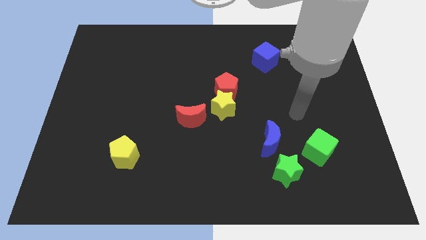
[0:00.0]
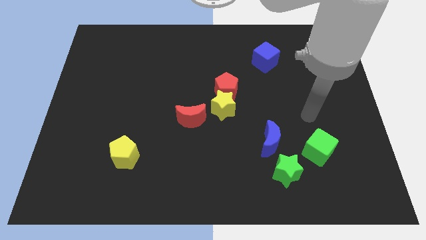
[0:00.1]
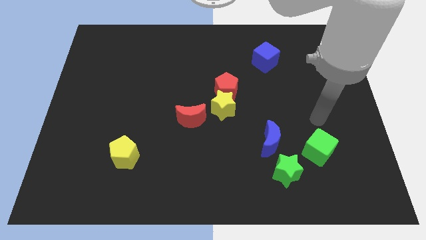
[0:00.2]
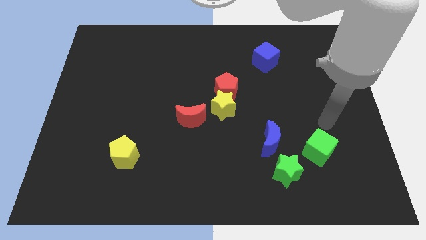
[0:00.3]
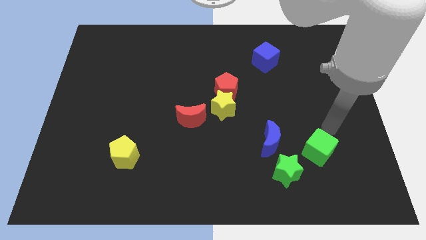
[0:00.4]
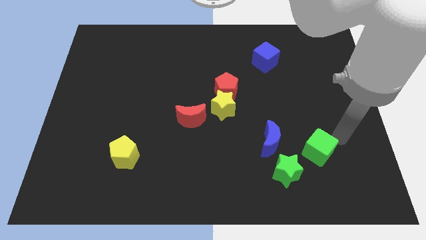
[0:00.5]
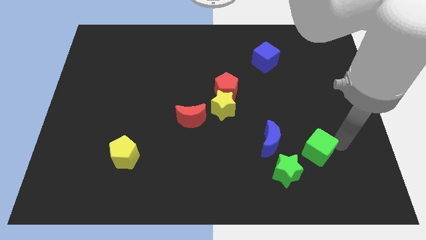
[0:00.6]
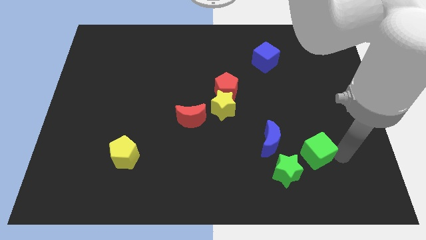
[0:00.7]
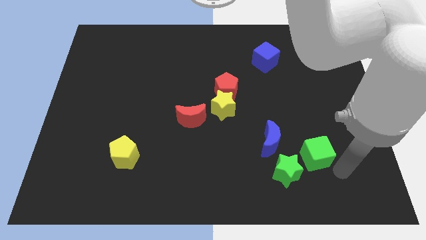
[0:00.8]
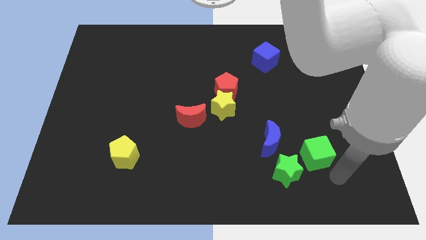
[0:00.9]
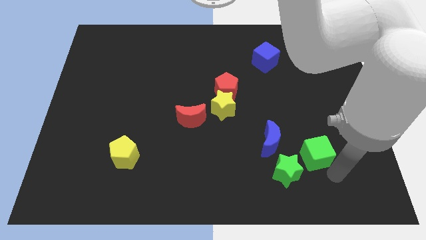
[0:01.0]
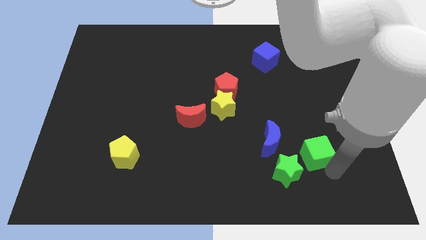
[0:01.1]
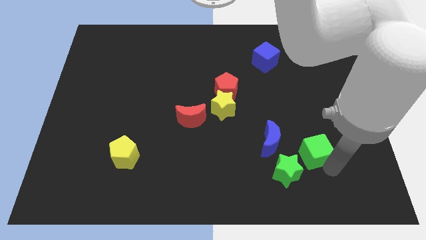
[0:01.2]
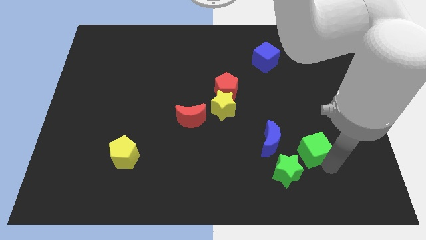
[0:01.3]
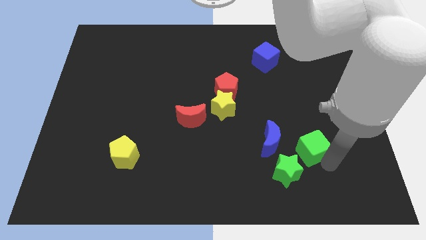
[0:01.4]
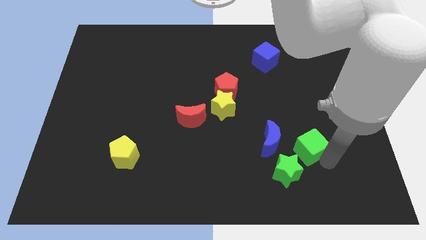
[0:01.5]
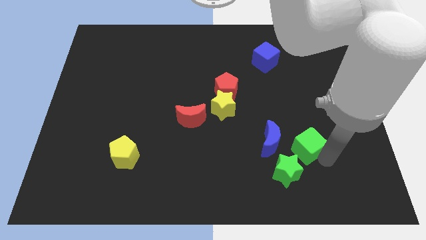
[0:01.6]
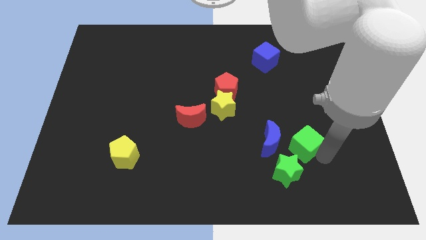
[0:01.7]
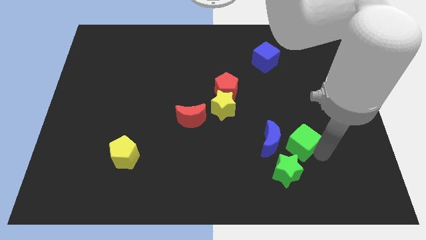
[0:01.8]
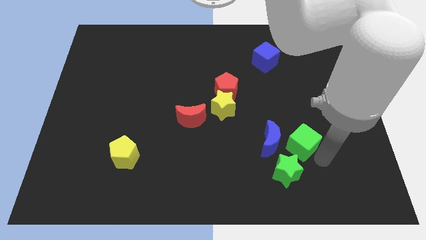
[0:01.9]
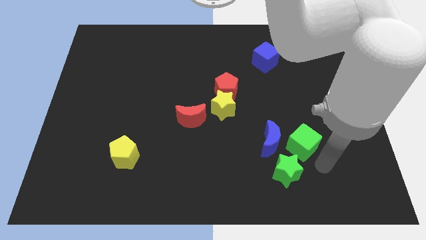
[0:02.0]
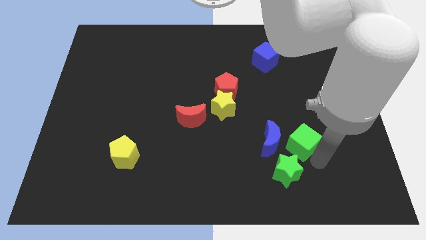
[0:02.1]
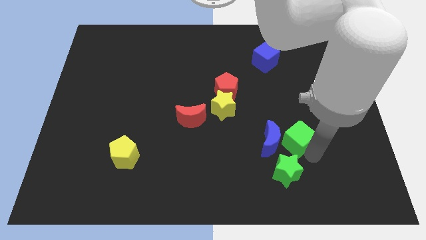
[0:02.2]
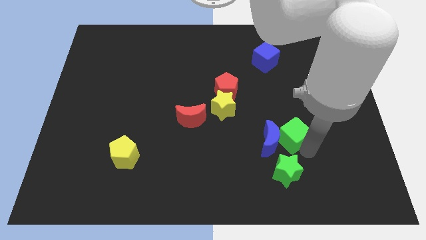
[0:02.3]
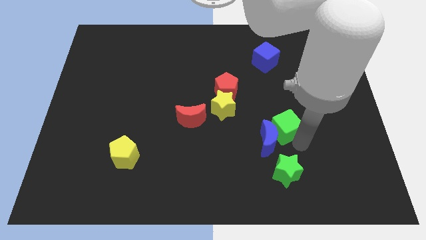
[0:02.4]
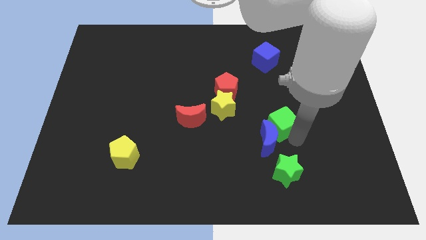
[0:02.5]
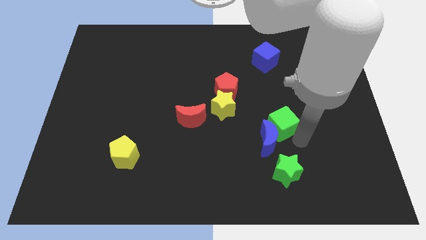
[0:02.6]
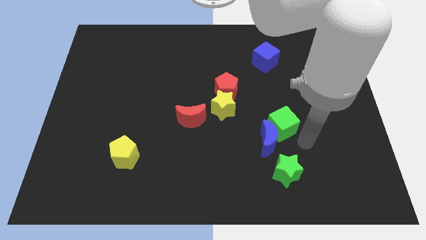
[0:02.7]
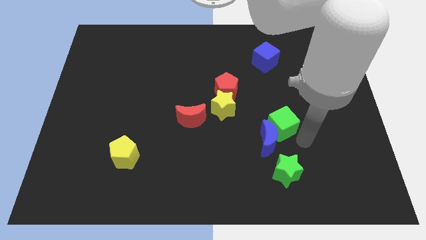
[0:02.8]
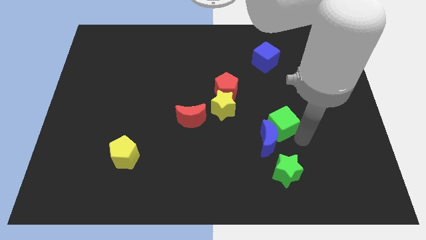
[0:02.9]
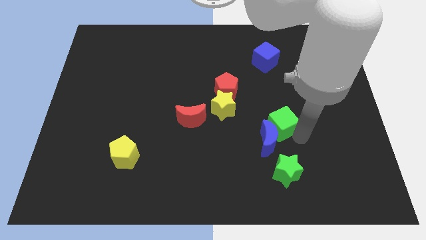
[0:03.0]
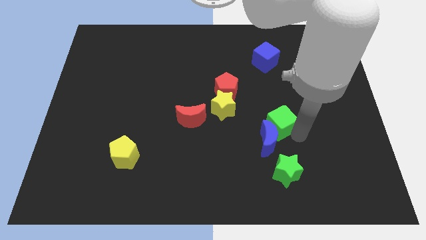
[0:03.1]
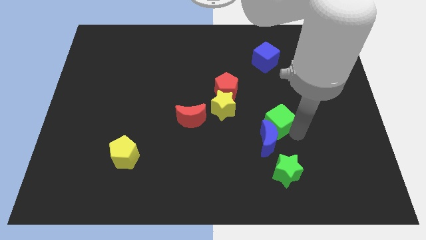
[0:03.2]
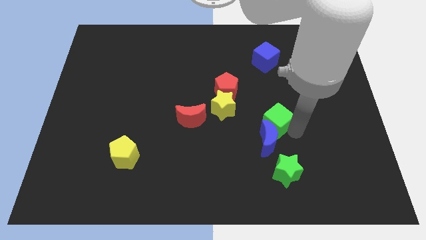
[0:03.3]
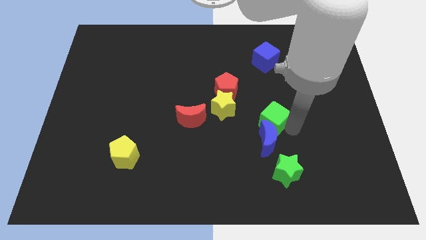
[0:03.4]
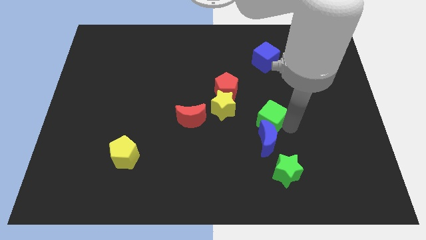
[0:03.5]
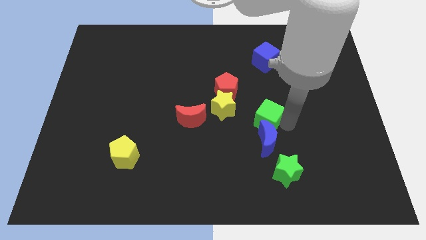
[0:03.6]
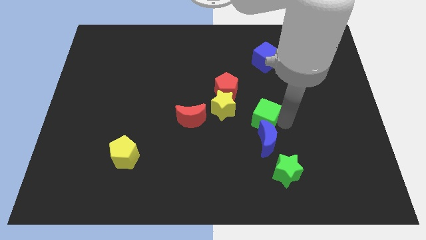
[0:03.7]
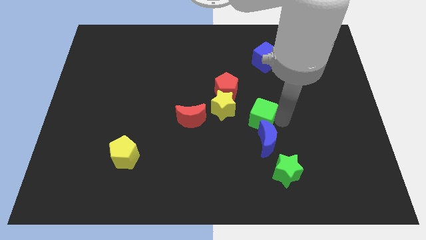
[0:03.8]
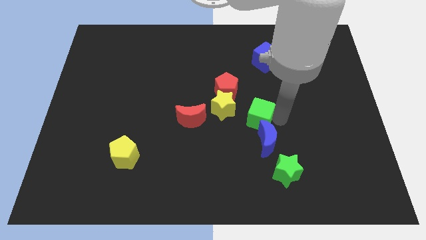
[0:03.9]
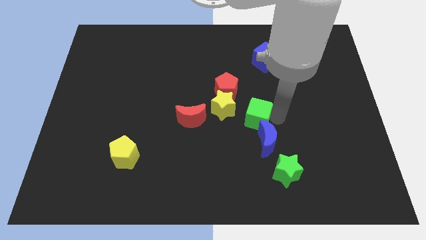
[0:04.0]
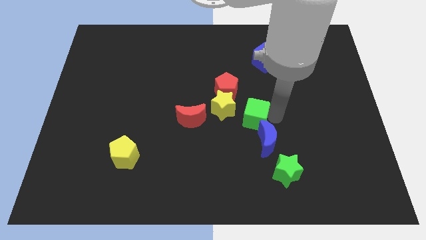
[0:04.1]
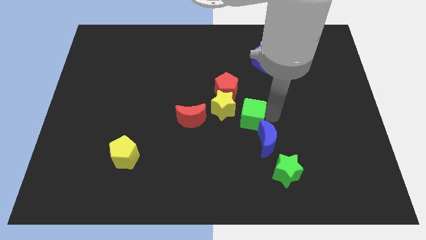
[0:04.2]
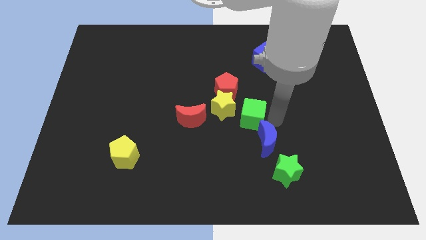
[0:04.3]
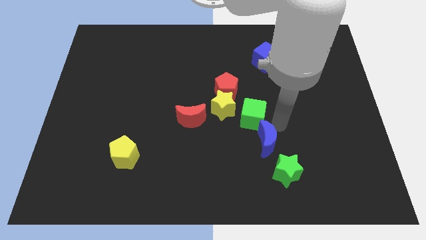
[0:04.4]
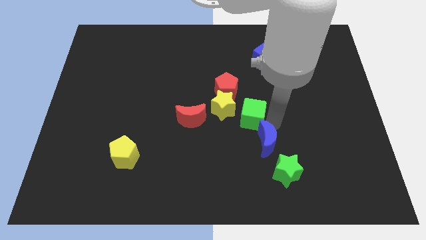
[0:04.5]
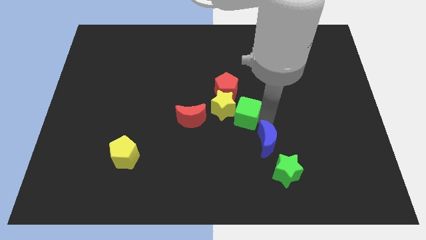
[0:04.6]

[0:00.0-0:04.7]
move the green cube close to the yellow star

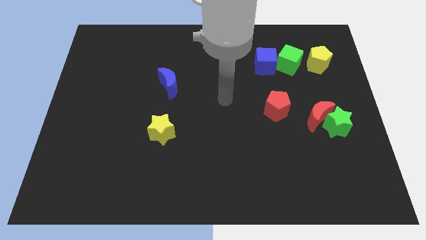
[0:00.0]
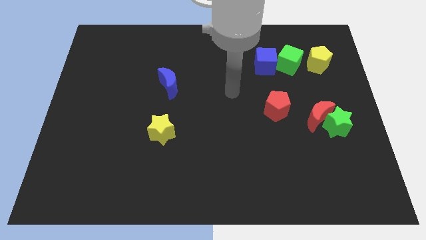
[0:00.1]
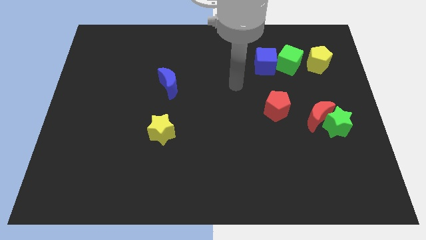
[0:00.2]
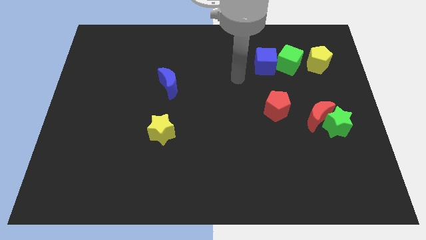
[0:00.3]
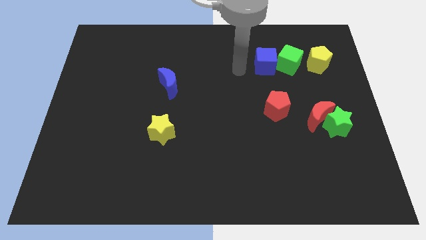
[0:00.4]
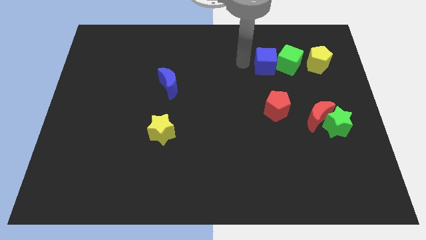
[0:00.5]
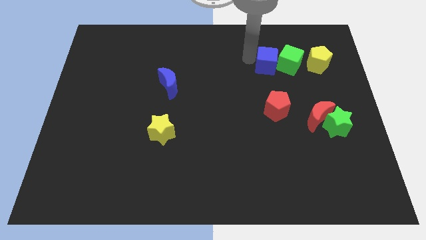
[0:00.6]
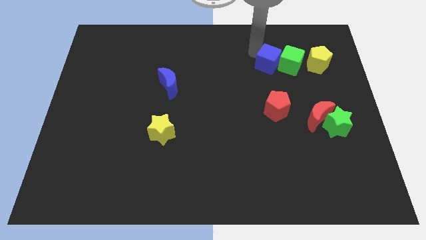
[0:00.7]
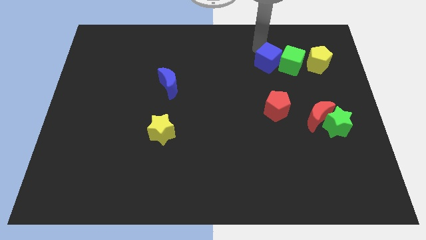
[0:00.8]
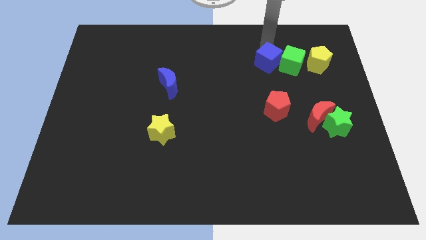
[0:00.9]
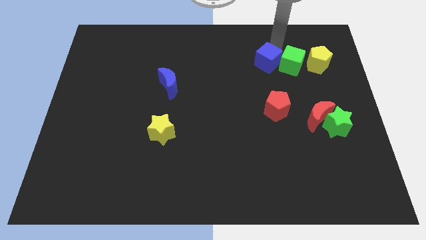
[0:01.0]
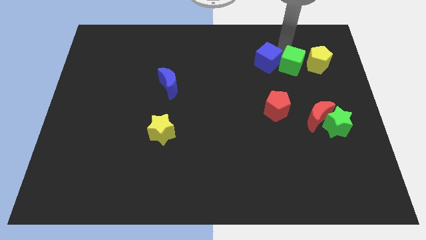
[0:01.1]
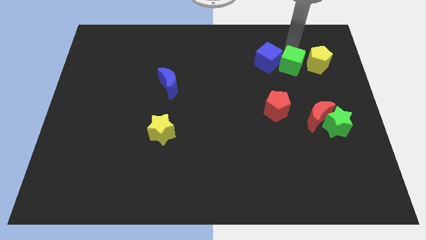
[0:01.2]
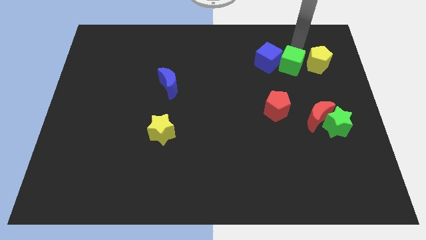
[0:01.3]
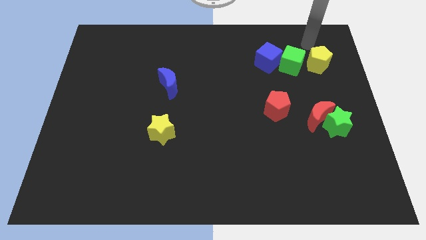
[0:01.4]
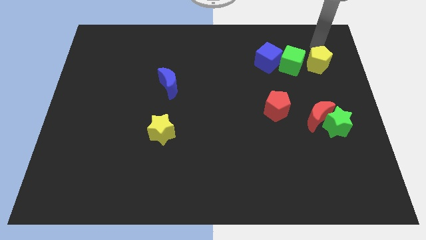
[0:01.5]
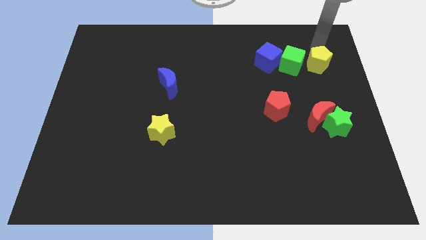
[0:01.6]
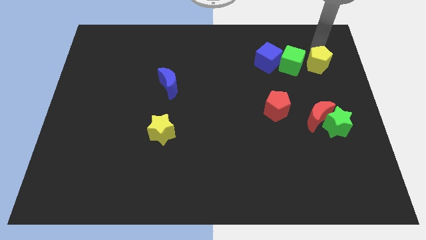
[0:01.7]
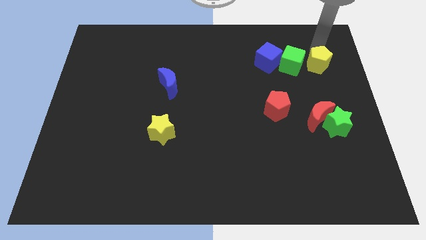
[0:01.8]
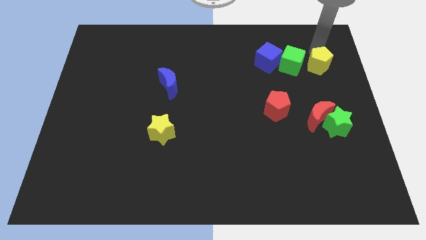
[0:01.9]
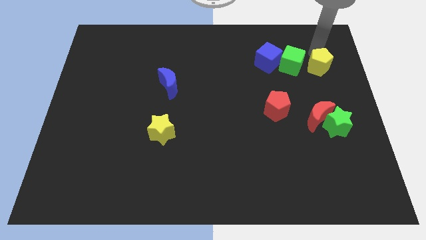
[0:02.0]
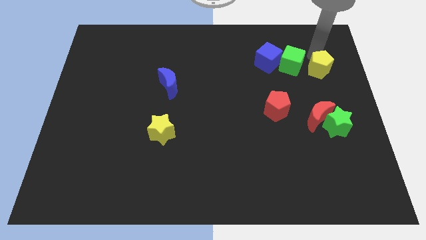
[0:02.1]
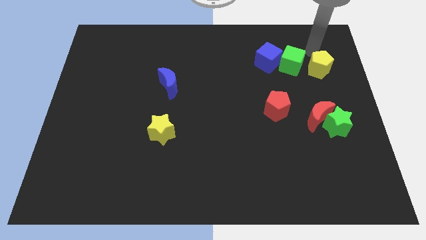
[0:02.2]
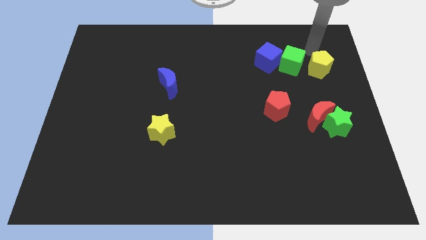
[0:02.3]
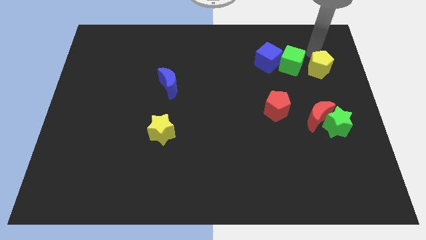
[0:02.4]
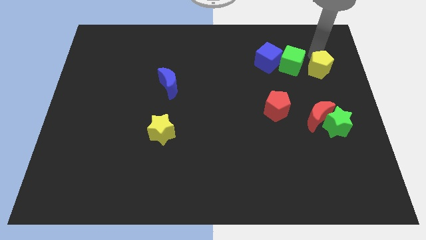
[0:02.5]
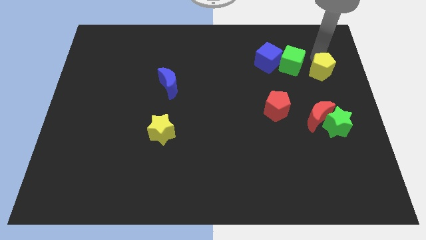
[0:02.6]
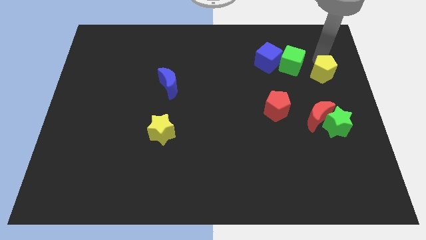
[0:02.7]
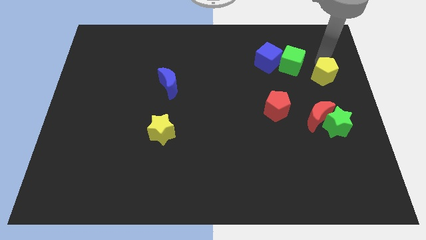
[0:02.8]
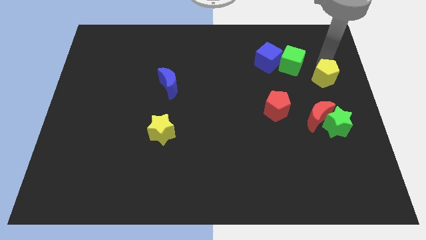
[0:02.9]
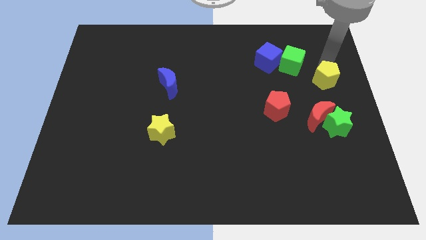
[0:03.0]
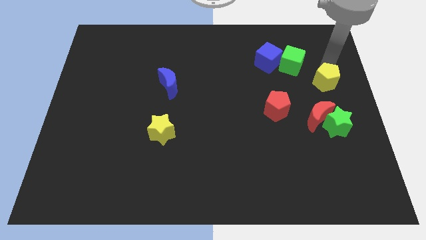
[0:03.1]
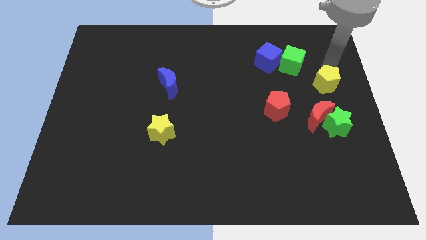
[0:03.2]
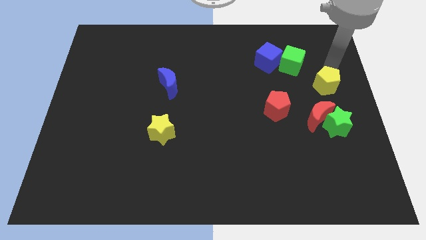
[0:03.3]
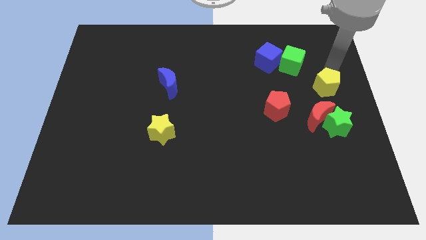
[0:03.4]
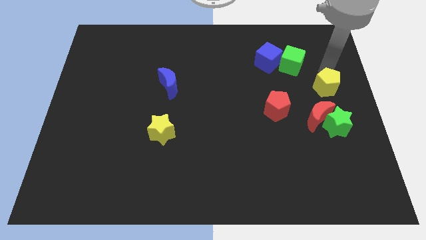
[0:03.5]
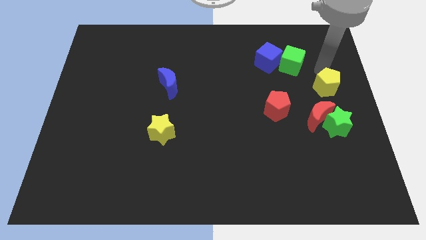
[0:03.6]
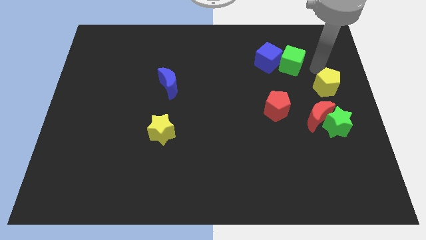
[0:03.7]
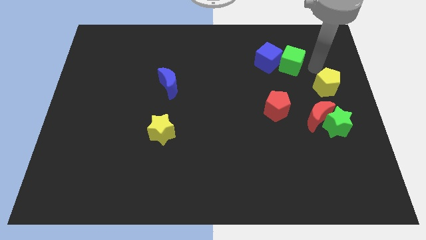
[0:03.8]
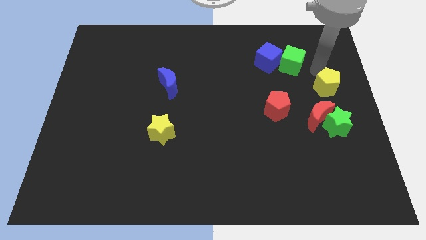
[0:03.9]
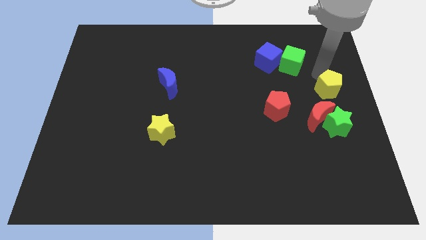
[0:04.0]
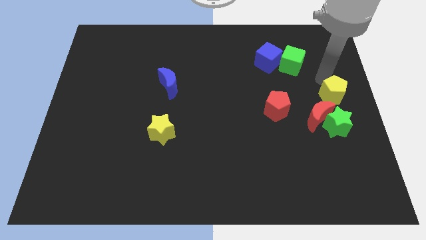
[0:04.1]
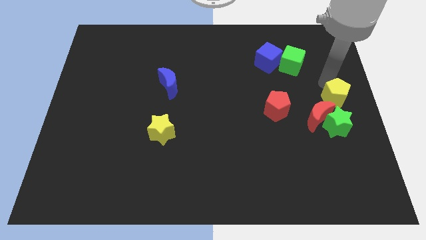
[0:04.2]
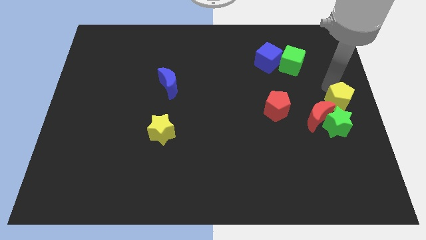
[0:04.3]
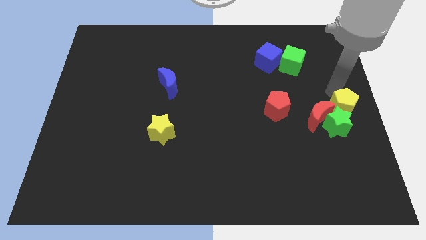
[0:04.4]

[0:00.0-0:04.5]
slide the yellow pentagon to the green star
